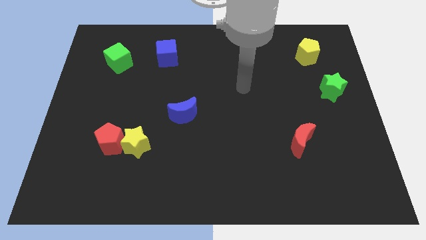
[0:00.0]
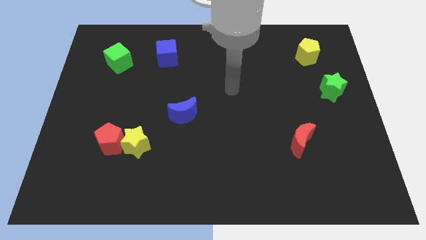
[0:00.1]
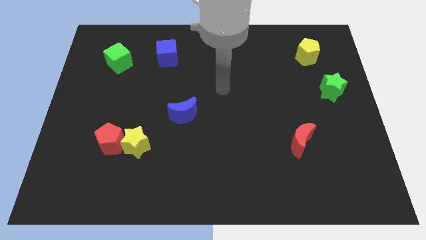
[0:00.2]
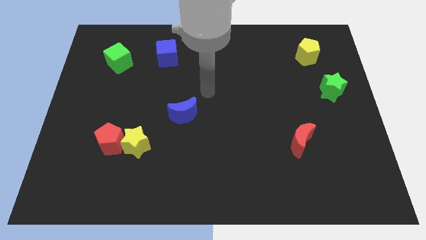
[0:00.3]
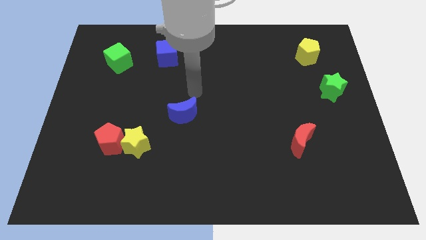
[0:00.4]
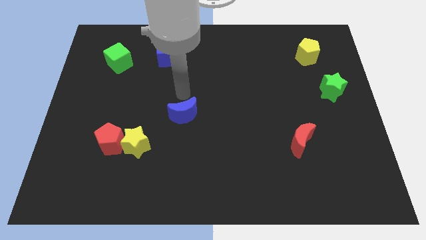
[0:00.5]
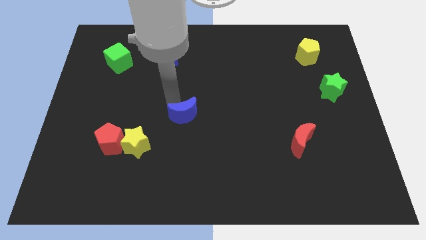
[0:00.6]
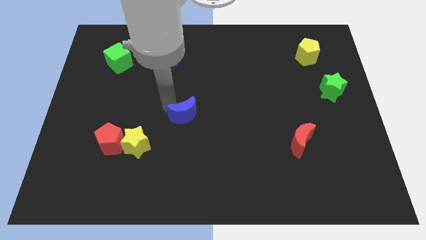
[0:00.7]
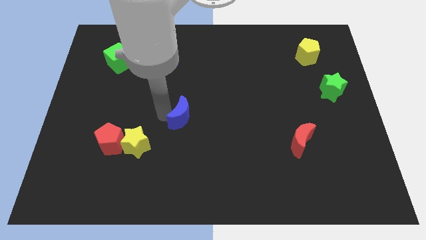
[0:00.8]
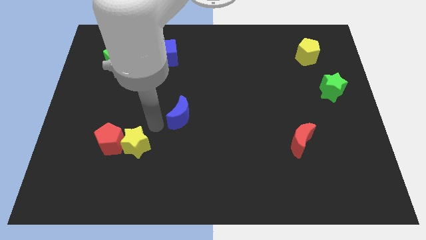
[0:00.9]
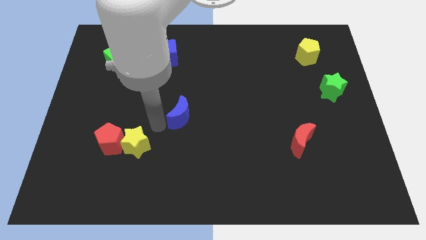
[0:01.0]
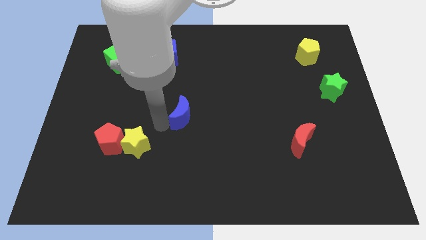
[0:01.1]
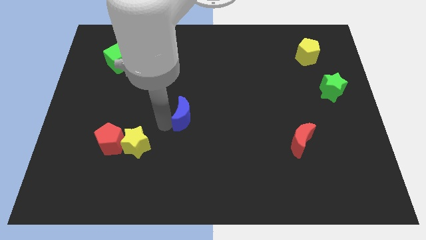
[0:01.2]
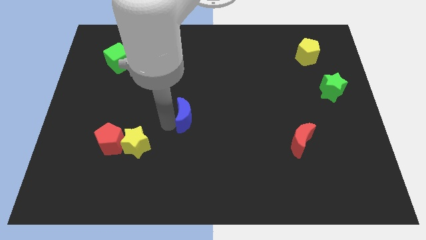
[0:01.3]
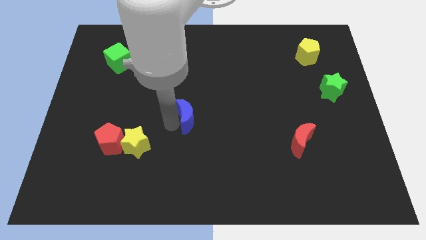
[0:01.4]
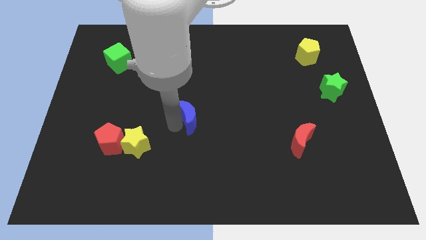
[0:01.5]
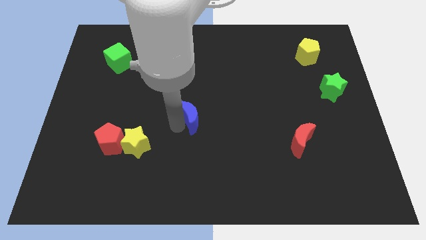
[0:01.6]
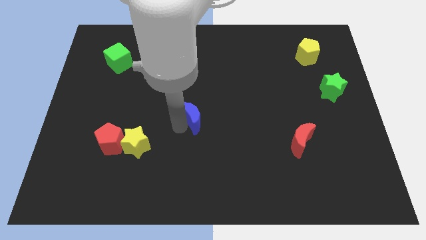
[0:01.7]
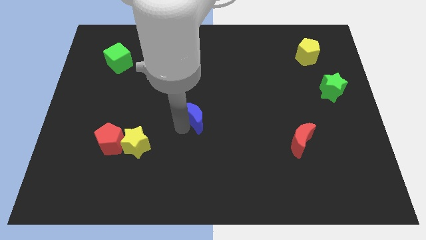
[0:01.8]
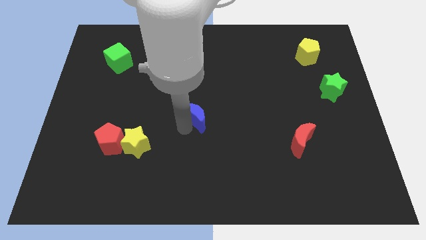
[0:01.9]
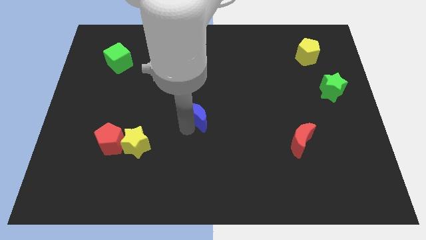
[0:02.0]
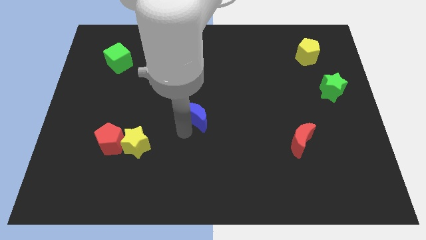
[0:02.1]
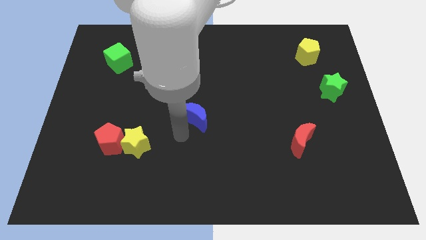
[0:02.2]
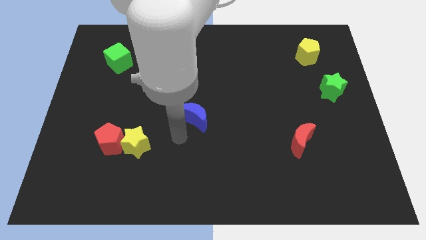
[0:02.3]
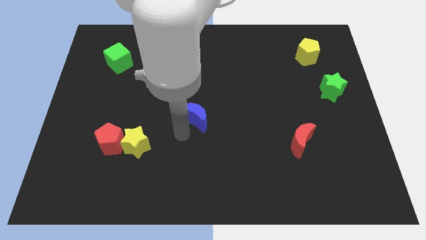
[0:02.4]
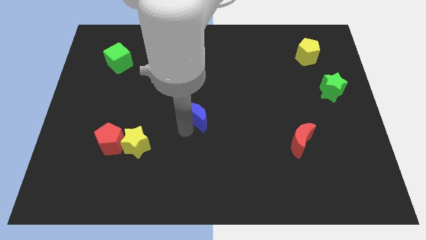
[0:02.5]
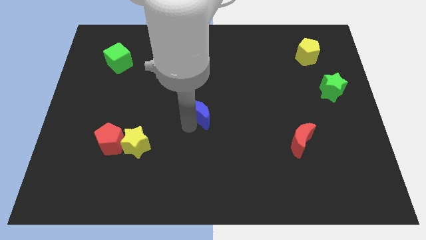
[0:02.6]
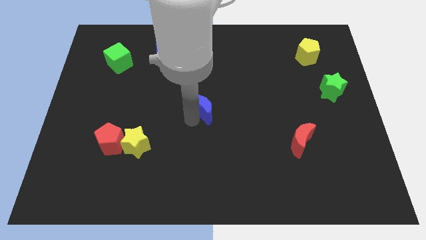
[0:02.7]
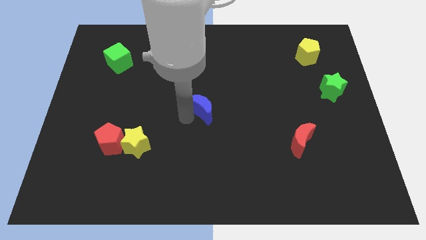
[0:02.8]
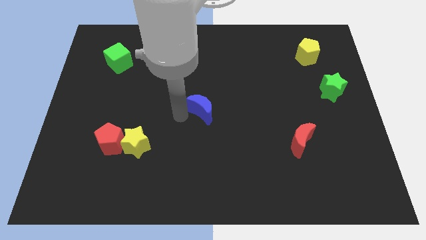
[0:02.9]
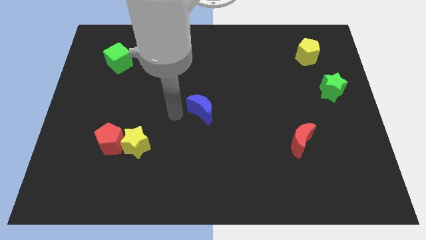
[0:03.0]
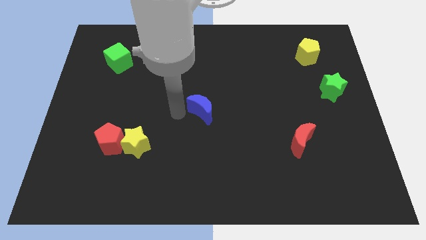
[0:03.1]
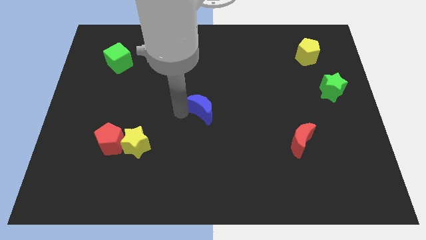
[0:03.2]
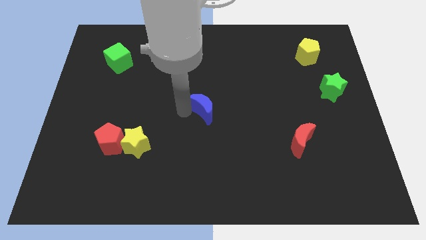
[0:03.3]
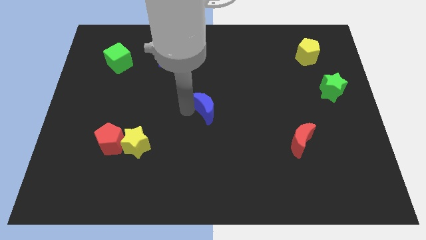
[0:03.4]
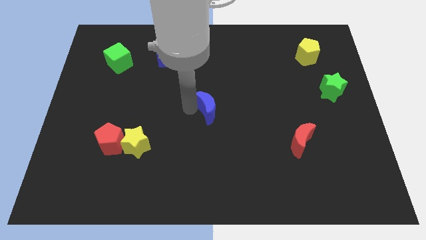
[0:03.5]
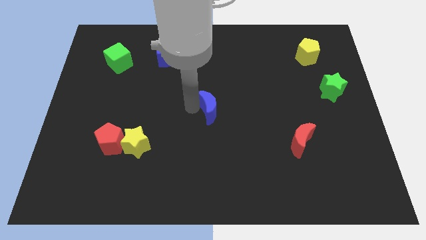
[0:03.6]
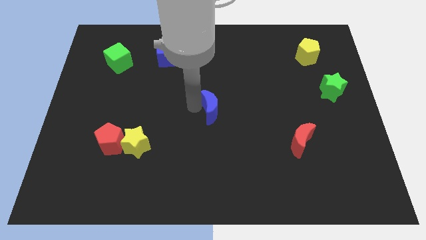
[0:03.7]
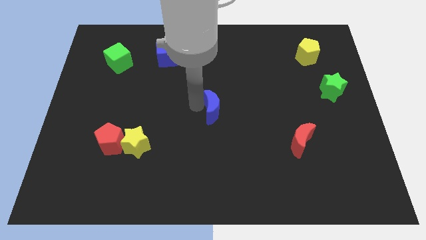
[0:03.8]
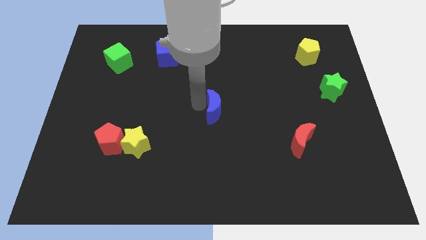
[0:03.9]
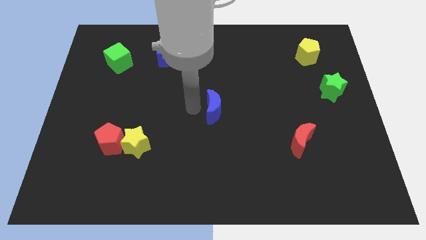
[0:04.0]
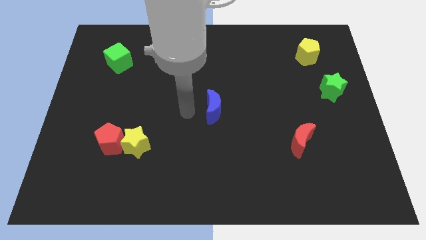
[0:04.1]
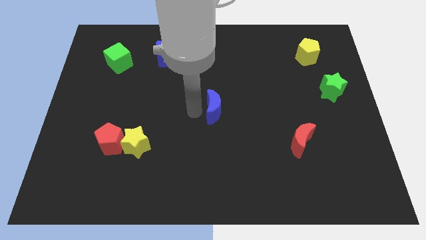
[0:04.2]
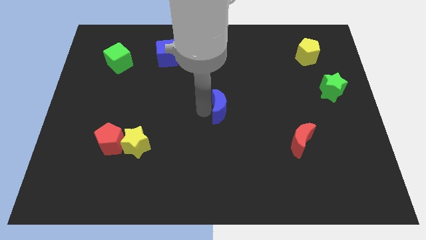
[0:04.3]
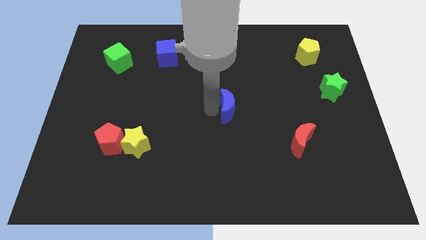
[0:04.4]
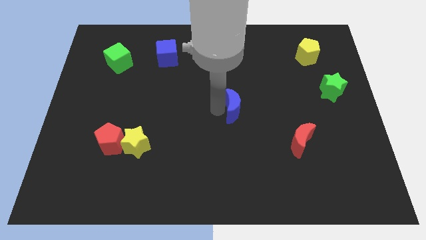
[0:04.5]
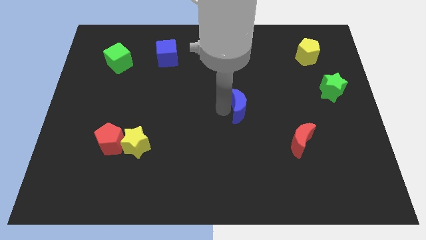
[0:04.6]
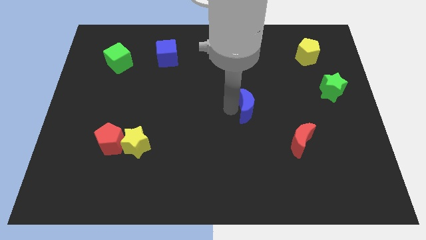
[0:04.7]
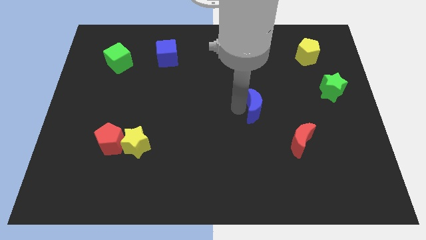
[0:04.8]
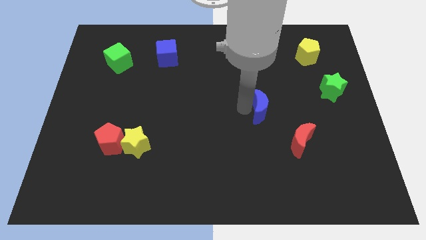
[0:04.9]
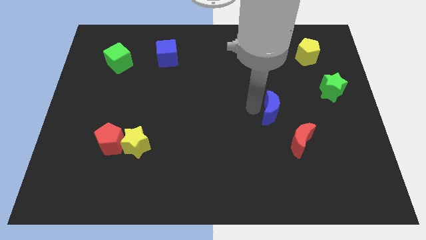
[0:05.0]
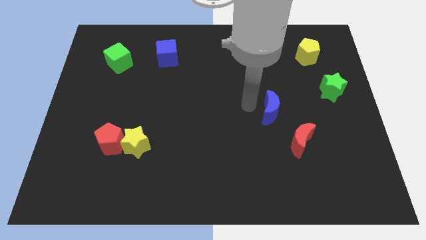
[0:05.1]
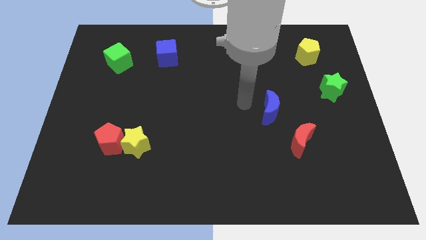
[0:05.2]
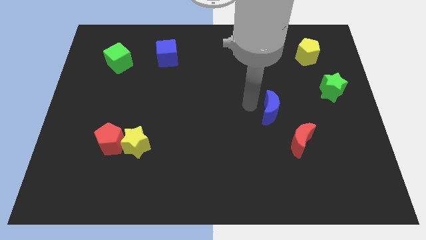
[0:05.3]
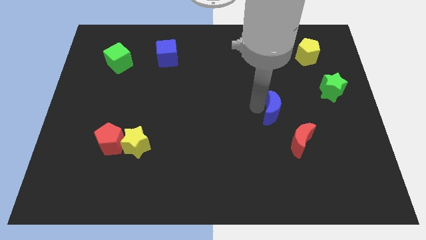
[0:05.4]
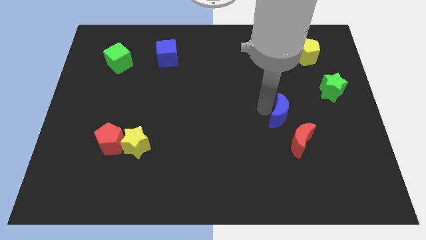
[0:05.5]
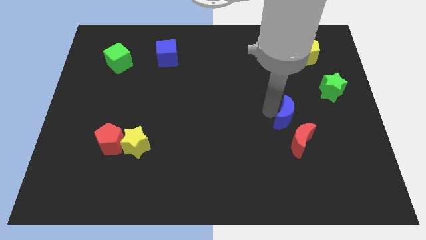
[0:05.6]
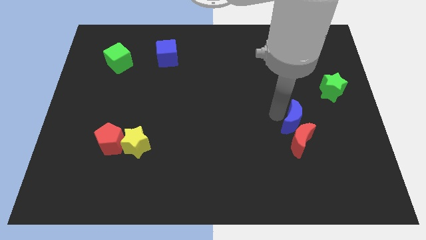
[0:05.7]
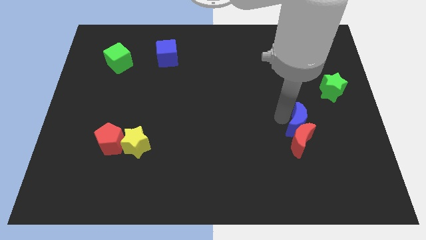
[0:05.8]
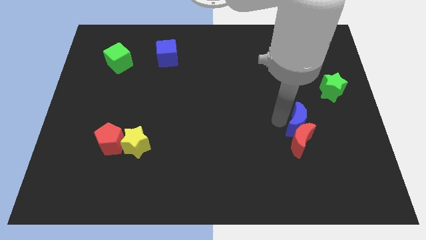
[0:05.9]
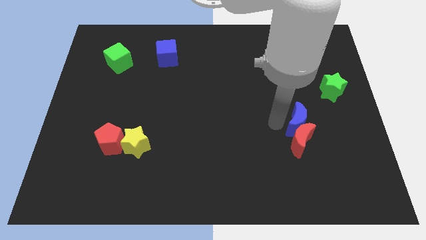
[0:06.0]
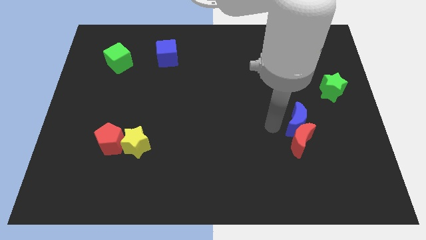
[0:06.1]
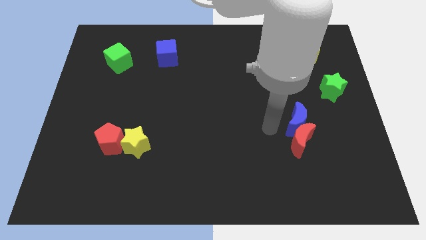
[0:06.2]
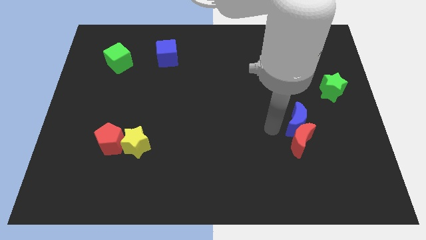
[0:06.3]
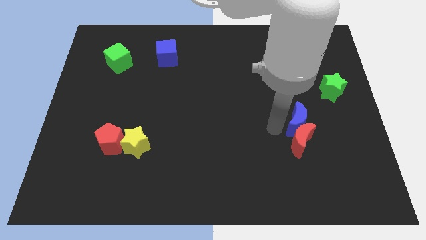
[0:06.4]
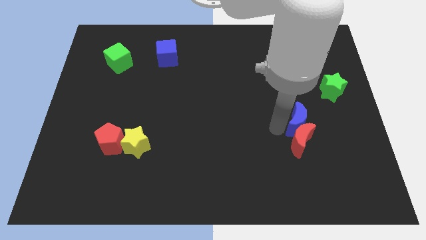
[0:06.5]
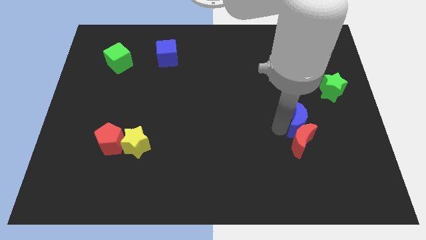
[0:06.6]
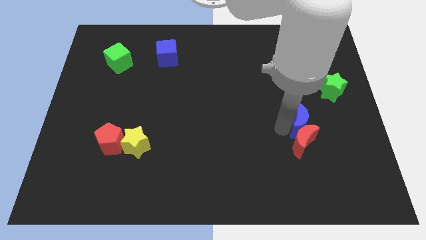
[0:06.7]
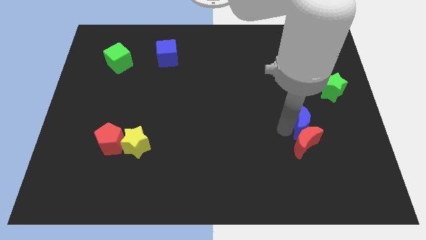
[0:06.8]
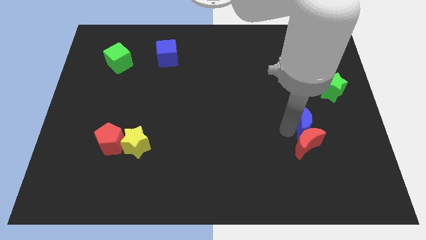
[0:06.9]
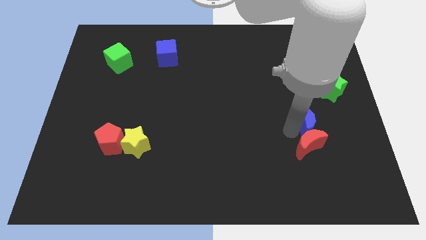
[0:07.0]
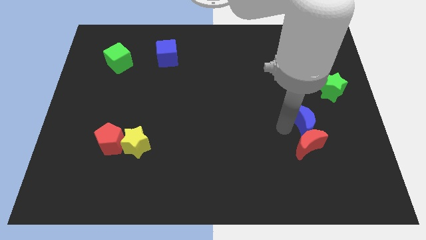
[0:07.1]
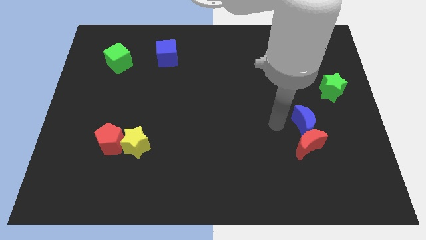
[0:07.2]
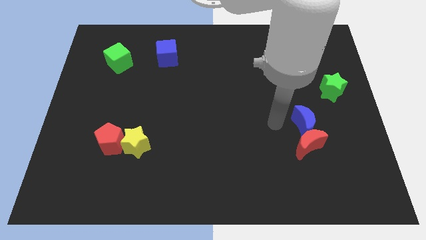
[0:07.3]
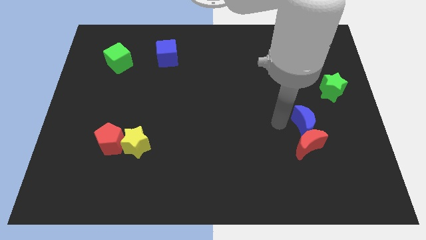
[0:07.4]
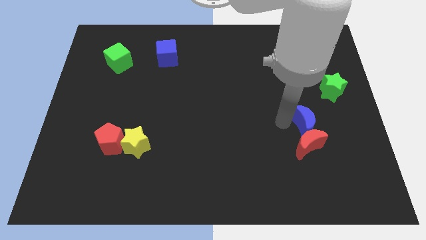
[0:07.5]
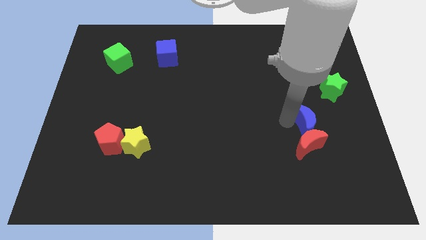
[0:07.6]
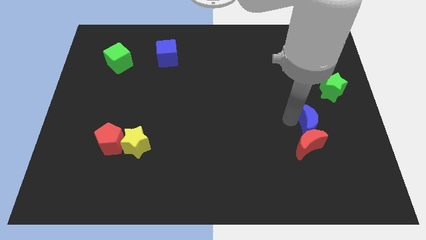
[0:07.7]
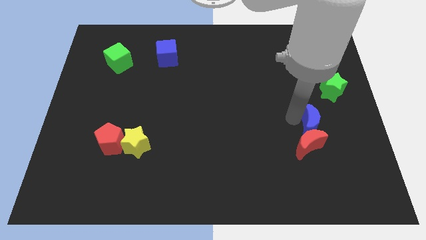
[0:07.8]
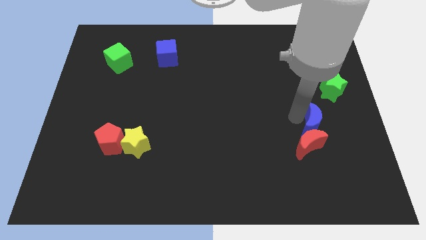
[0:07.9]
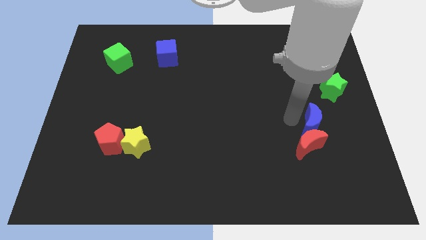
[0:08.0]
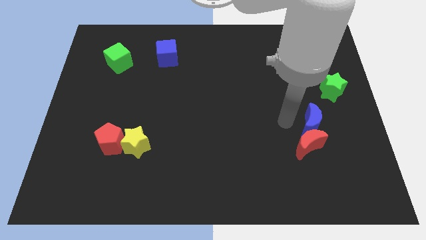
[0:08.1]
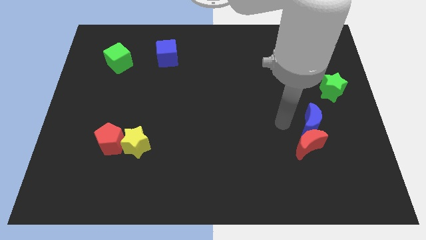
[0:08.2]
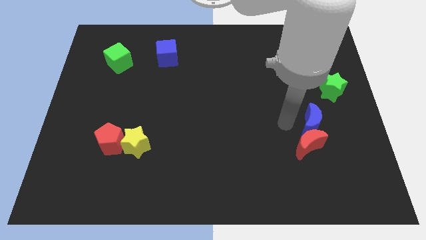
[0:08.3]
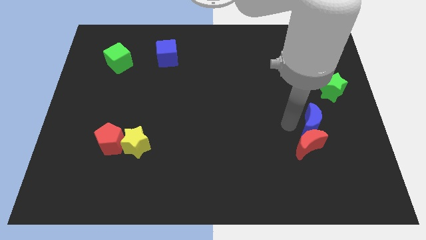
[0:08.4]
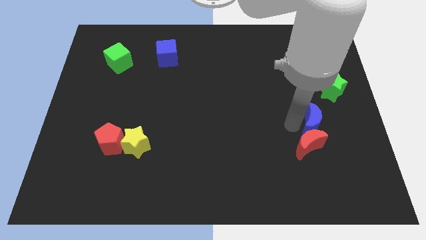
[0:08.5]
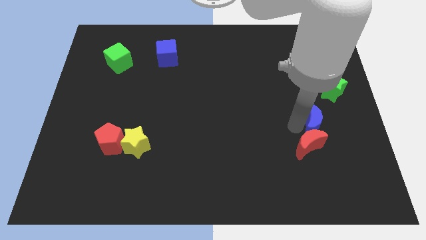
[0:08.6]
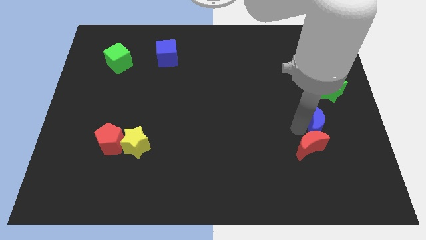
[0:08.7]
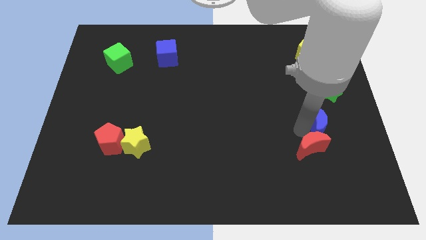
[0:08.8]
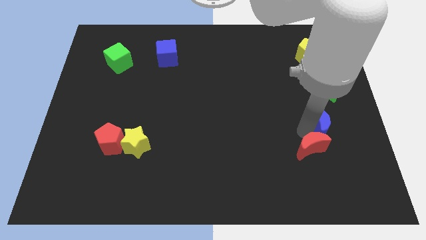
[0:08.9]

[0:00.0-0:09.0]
move the blue moon to the bottom side of the green star
